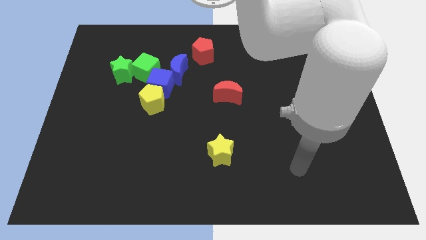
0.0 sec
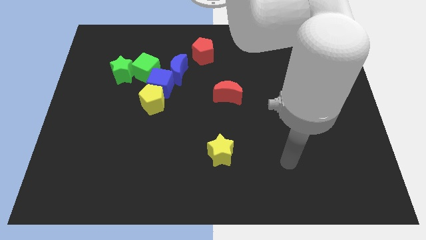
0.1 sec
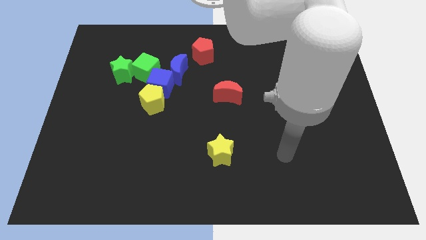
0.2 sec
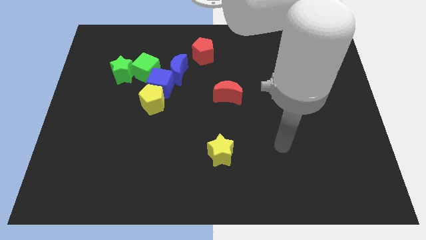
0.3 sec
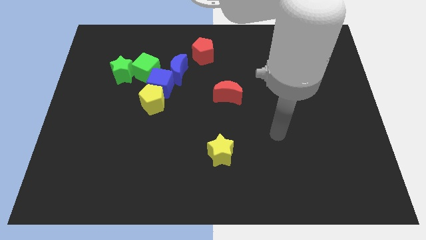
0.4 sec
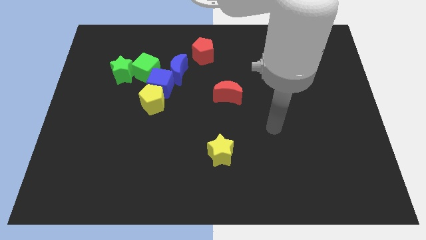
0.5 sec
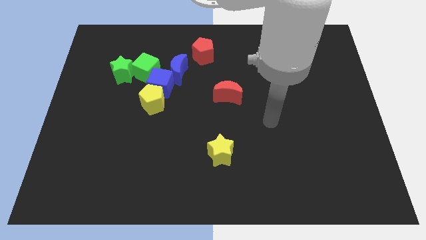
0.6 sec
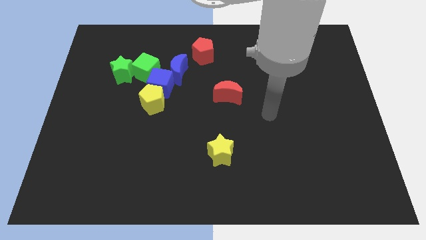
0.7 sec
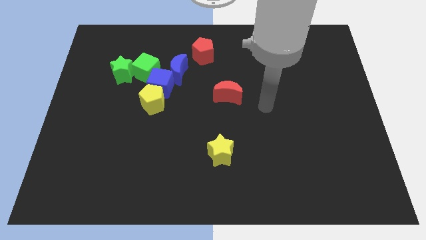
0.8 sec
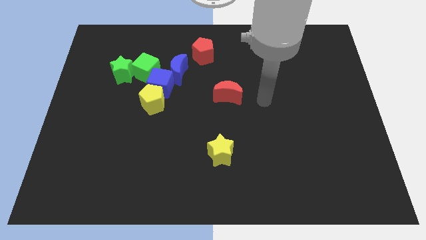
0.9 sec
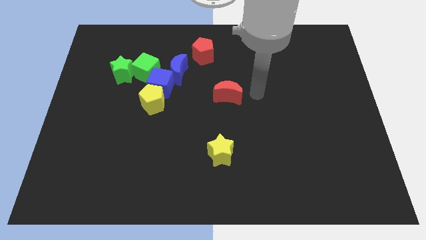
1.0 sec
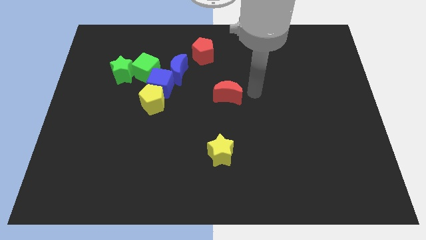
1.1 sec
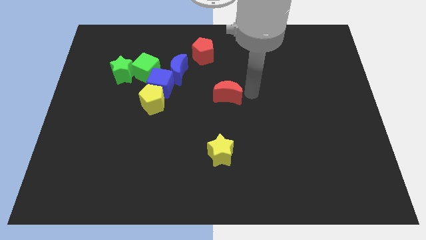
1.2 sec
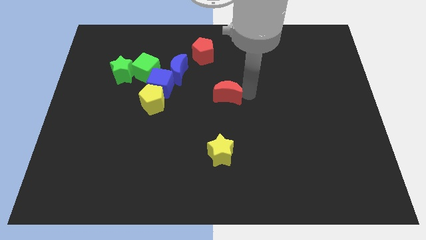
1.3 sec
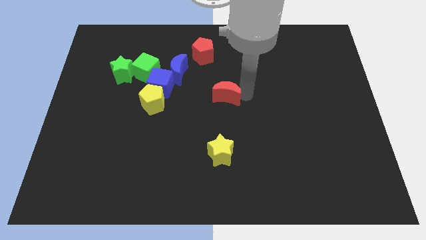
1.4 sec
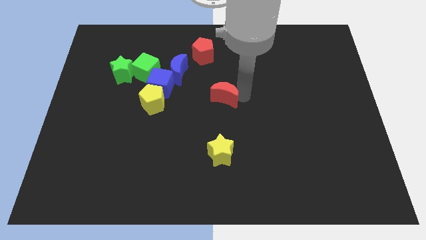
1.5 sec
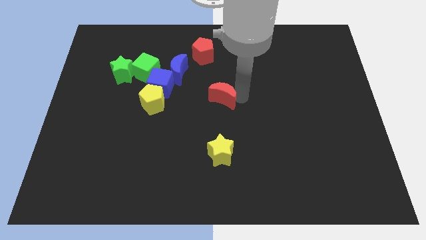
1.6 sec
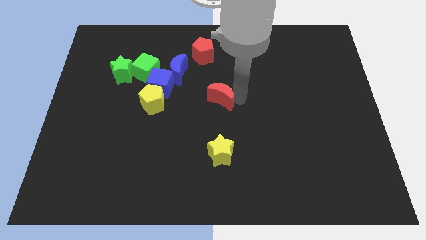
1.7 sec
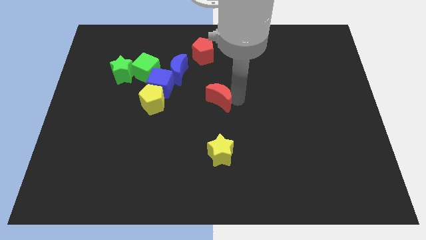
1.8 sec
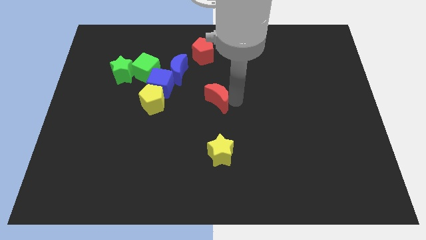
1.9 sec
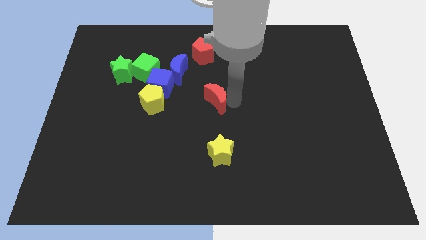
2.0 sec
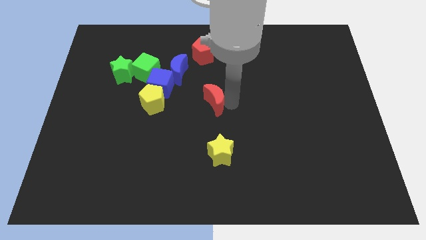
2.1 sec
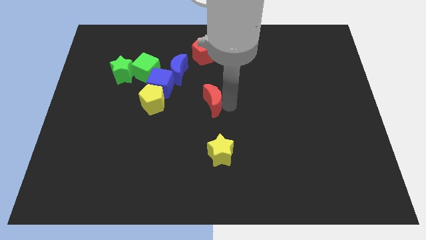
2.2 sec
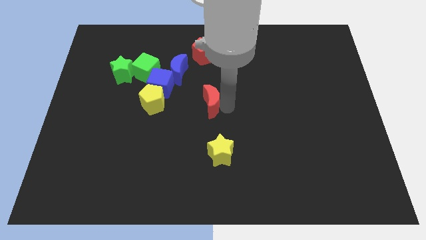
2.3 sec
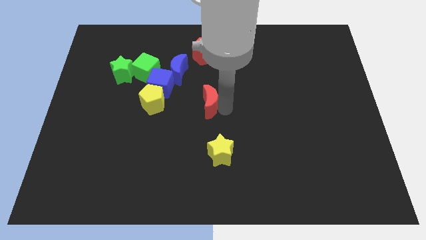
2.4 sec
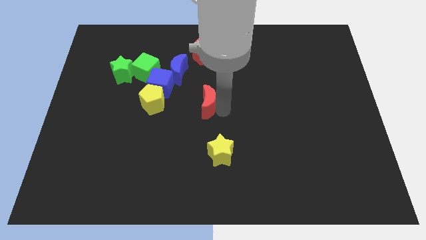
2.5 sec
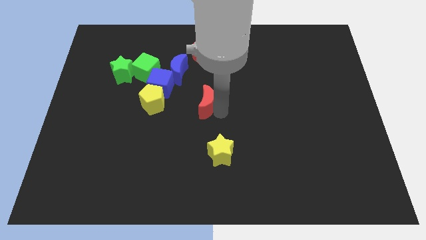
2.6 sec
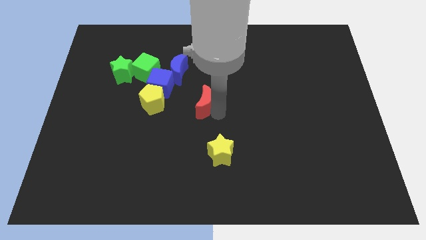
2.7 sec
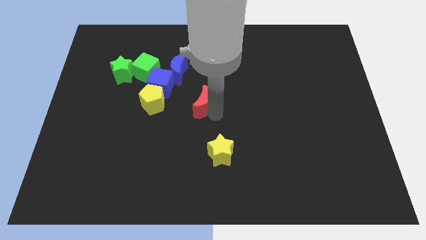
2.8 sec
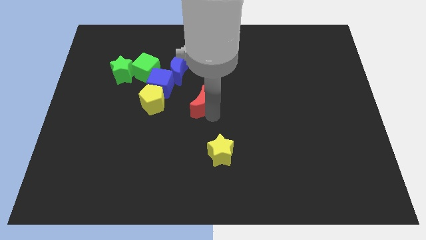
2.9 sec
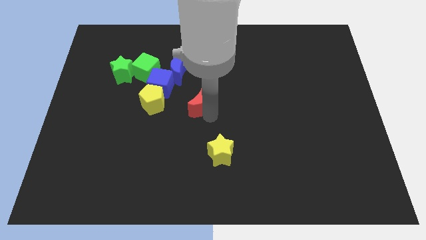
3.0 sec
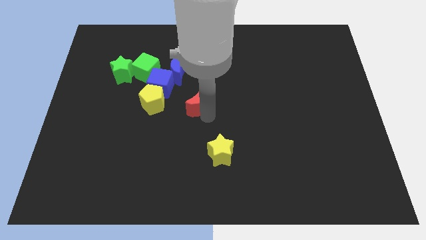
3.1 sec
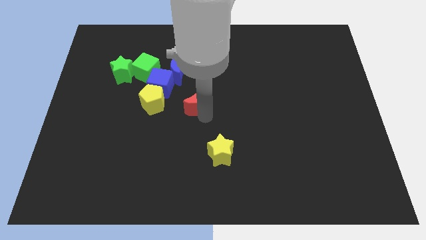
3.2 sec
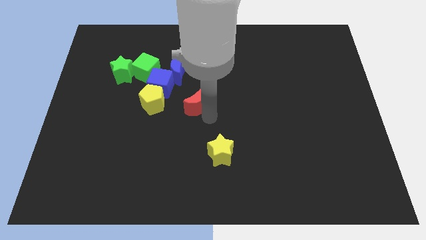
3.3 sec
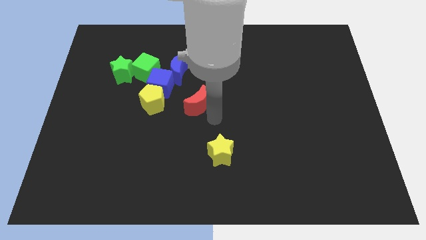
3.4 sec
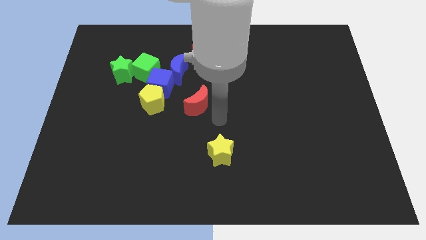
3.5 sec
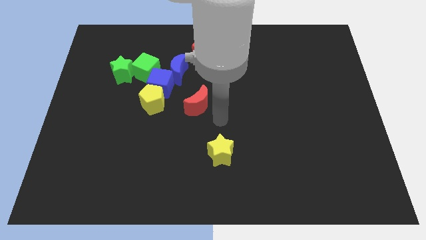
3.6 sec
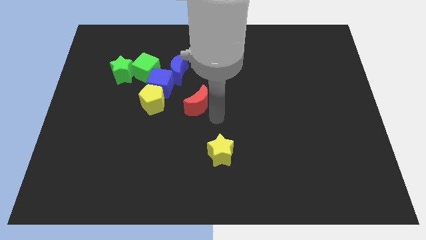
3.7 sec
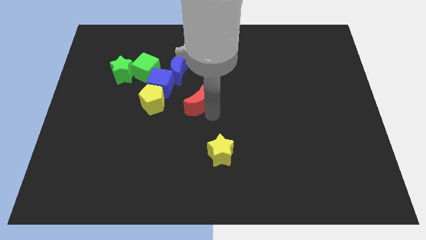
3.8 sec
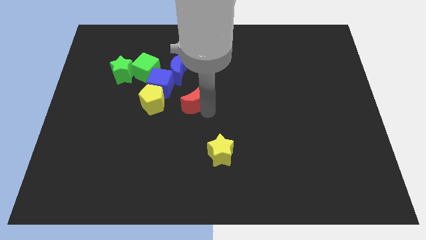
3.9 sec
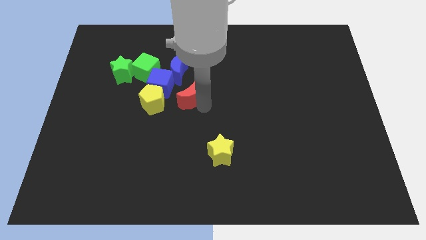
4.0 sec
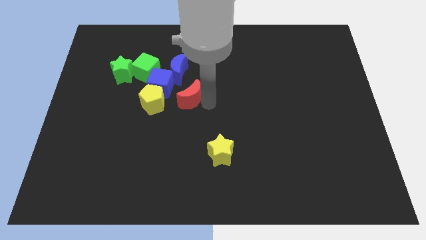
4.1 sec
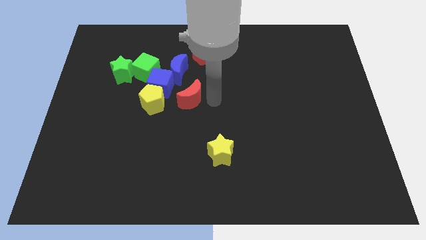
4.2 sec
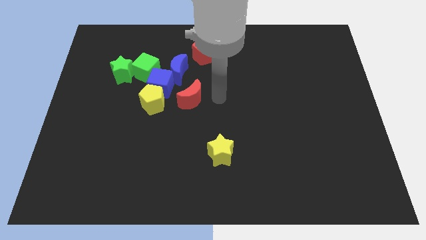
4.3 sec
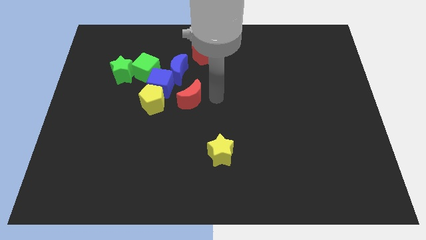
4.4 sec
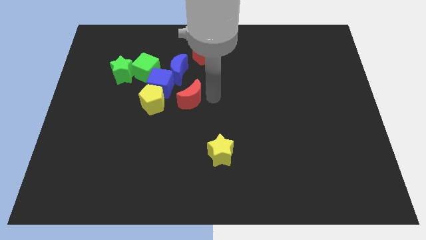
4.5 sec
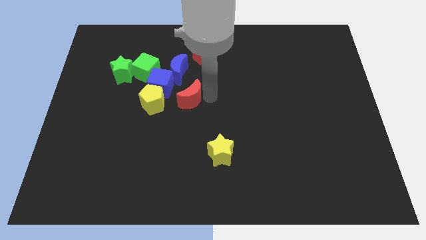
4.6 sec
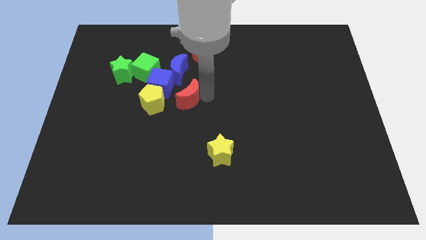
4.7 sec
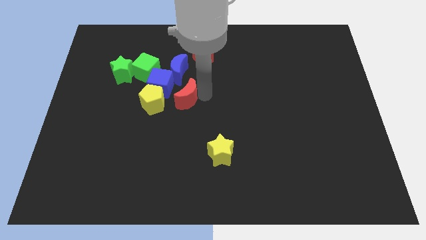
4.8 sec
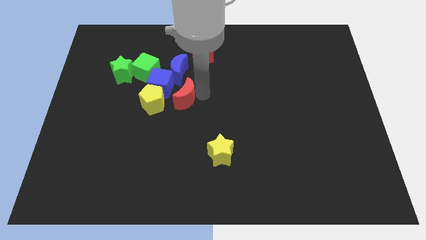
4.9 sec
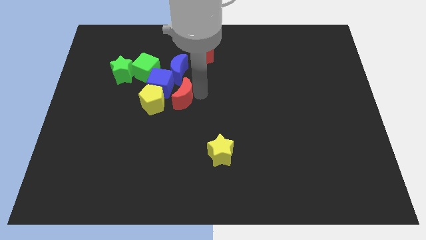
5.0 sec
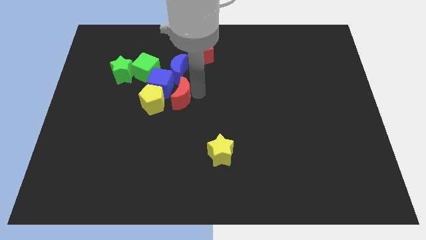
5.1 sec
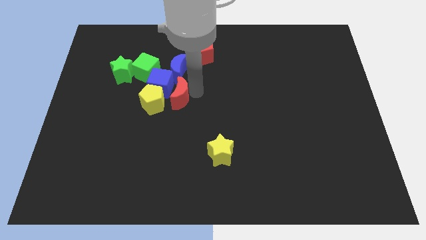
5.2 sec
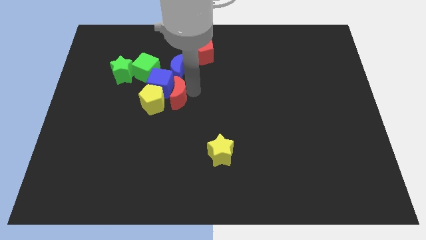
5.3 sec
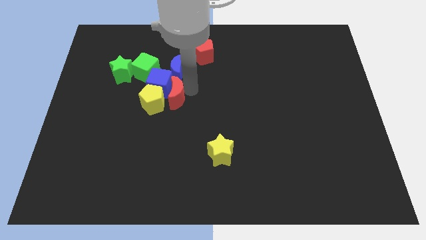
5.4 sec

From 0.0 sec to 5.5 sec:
slide the red moon to the yellow pentagon

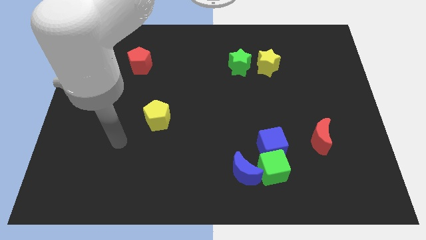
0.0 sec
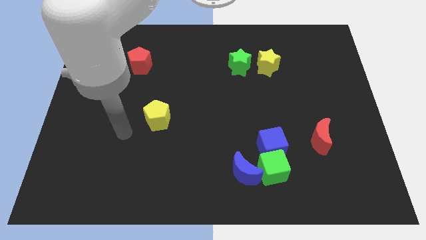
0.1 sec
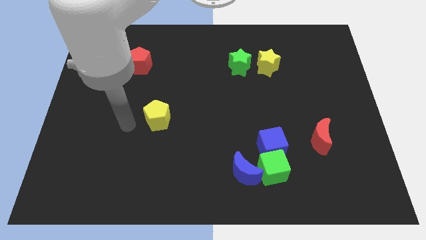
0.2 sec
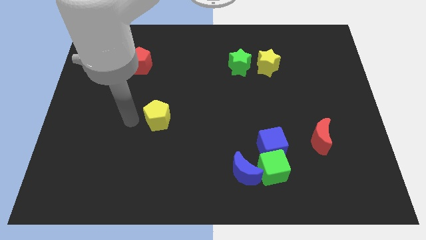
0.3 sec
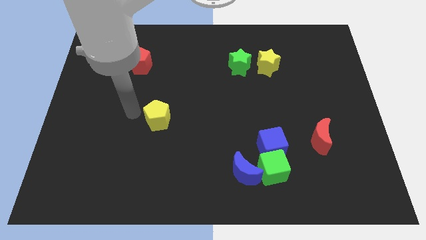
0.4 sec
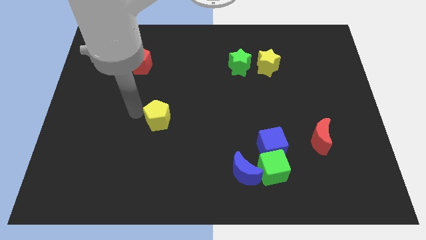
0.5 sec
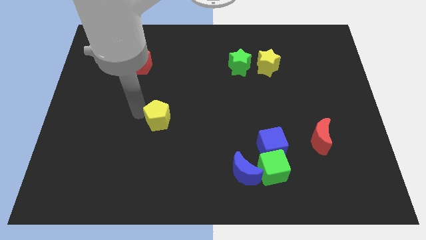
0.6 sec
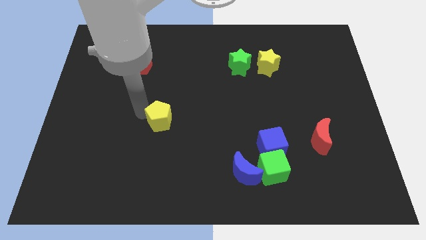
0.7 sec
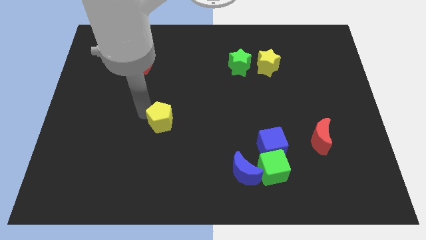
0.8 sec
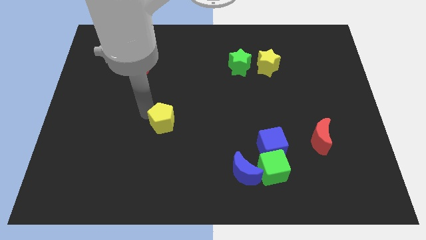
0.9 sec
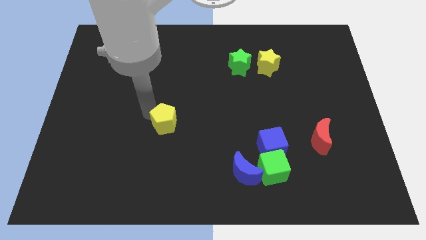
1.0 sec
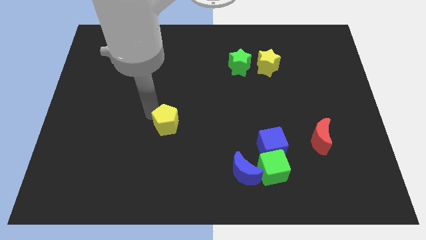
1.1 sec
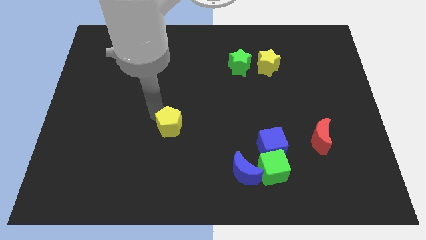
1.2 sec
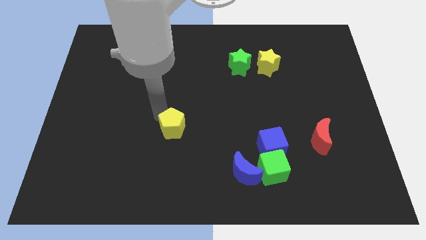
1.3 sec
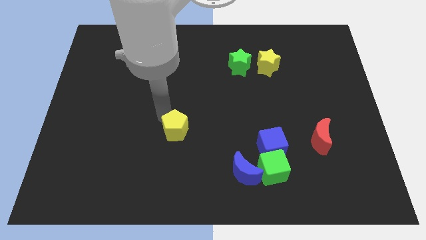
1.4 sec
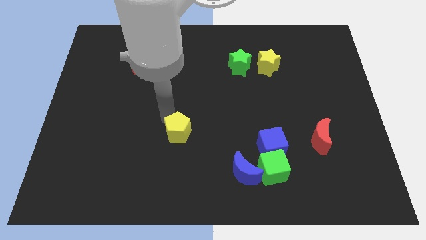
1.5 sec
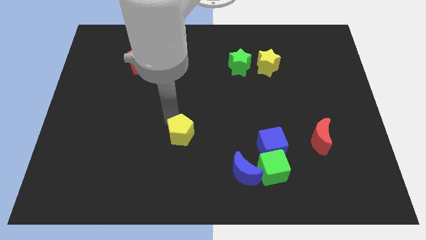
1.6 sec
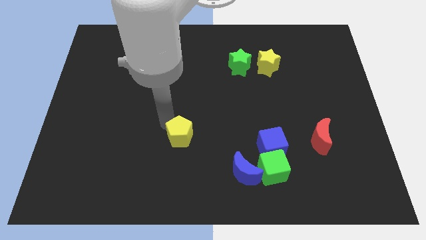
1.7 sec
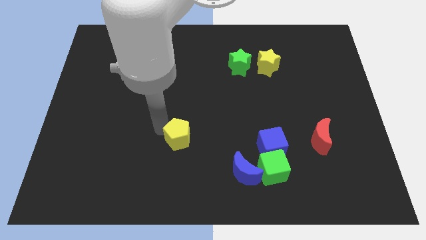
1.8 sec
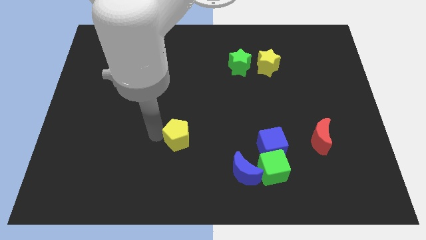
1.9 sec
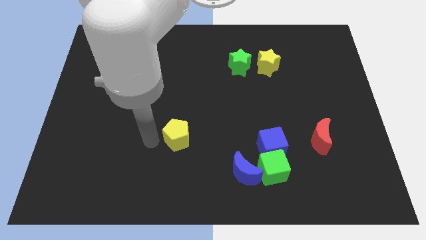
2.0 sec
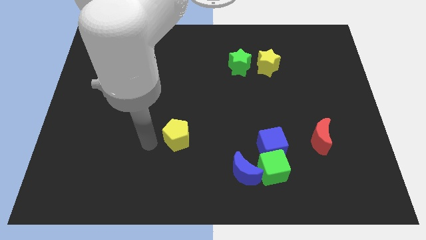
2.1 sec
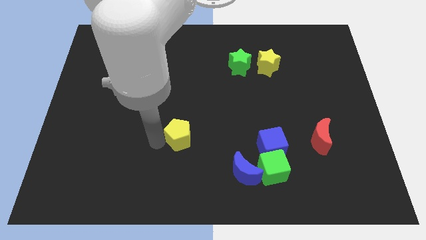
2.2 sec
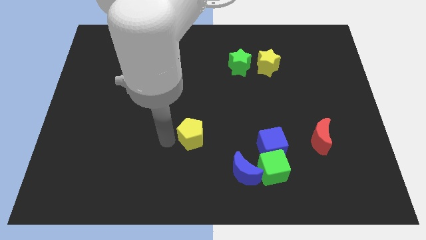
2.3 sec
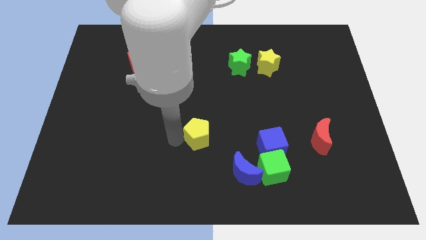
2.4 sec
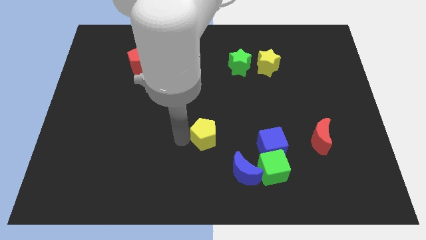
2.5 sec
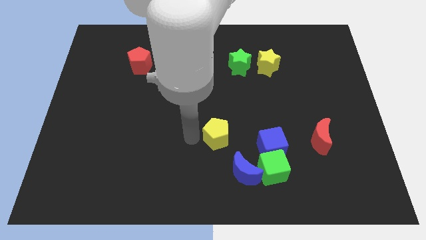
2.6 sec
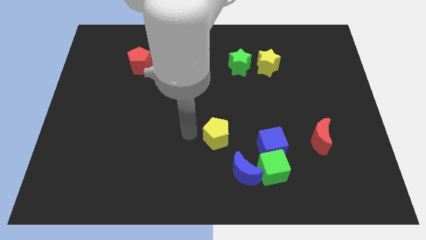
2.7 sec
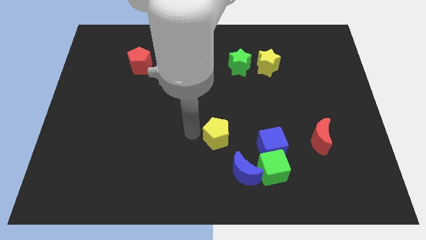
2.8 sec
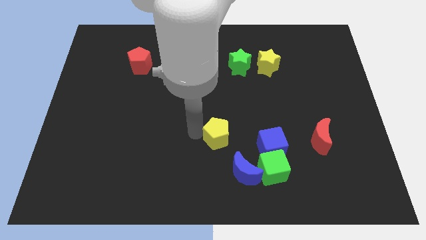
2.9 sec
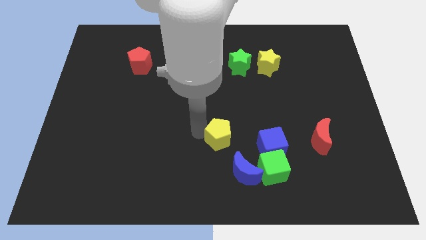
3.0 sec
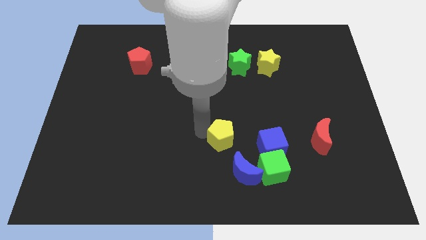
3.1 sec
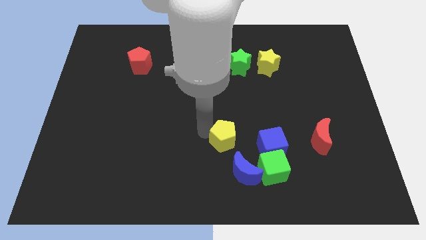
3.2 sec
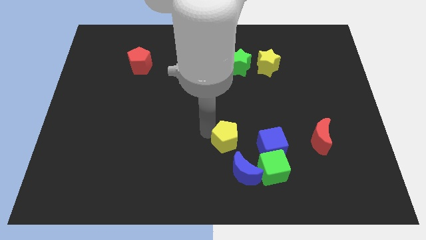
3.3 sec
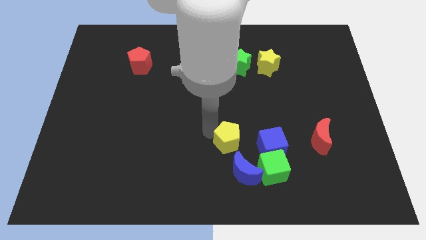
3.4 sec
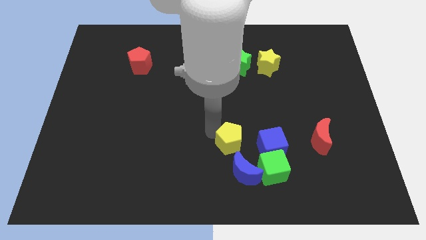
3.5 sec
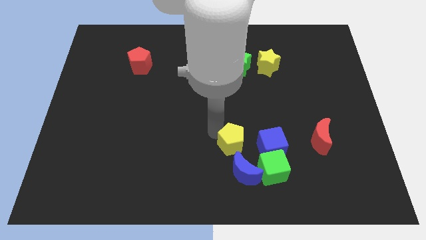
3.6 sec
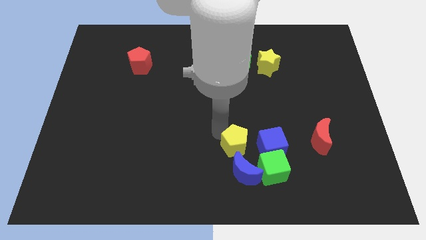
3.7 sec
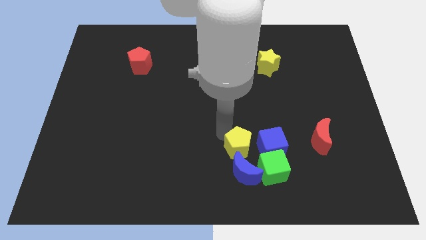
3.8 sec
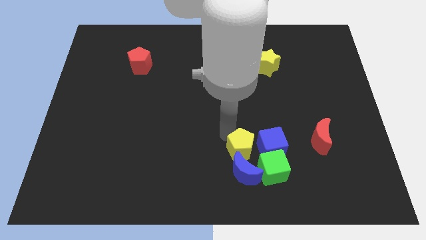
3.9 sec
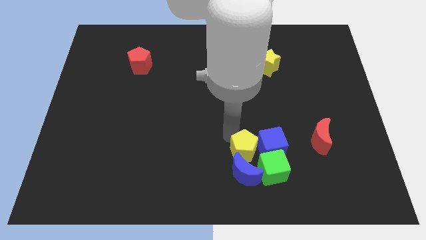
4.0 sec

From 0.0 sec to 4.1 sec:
put the yellow pentagon next to the blue cube
